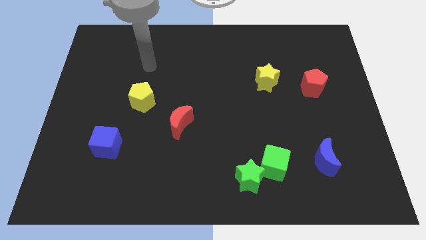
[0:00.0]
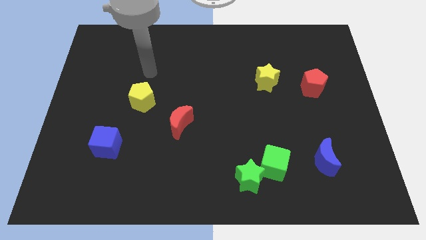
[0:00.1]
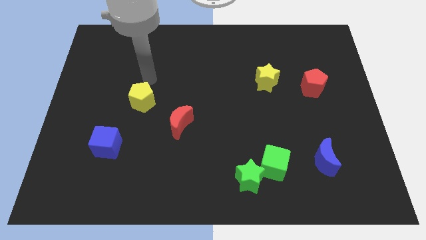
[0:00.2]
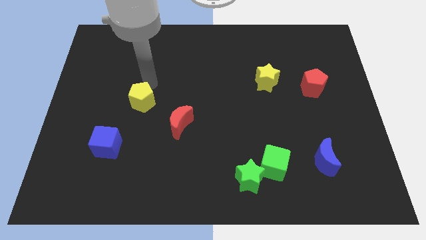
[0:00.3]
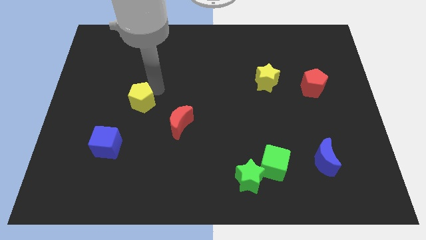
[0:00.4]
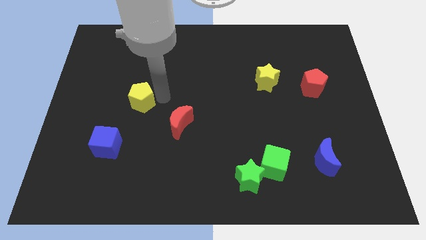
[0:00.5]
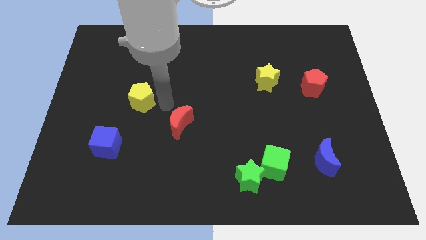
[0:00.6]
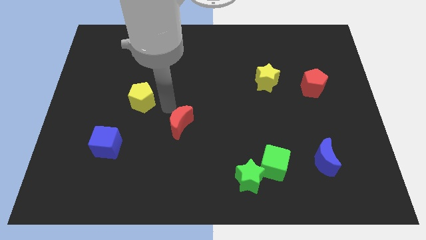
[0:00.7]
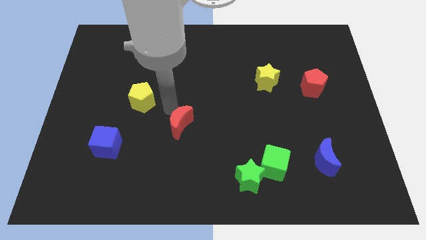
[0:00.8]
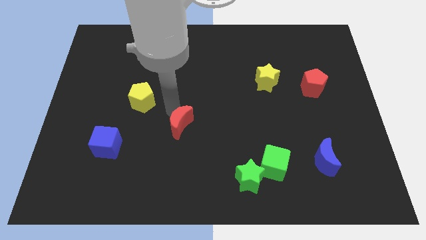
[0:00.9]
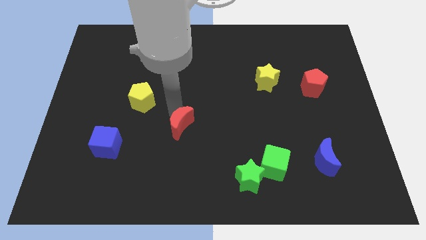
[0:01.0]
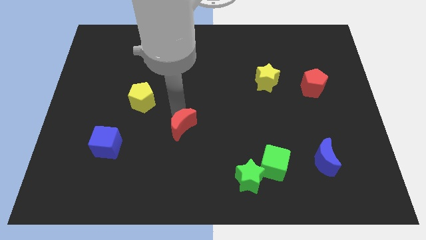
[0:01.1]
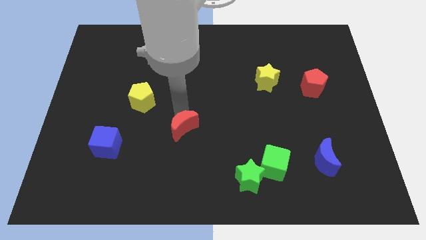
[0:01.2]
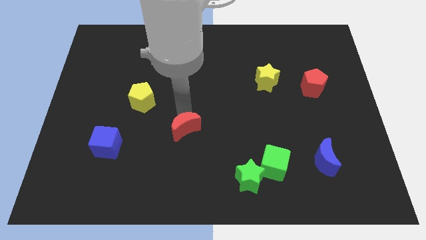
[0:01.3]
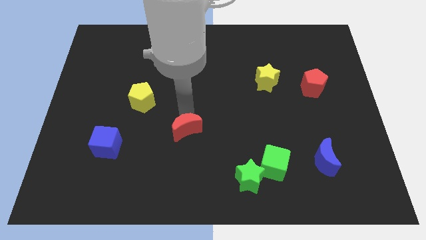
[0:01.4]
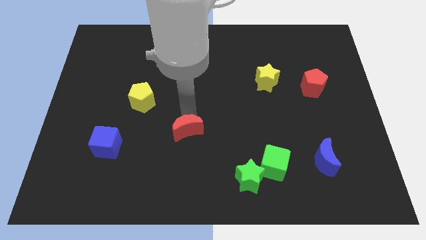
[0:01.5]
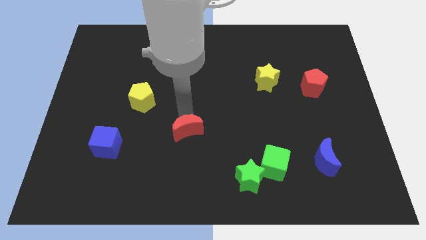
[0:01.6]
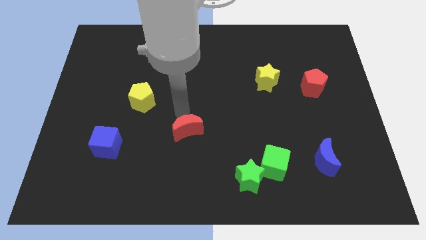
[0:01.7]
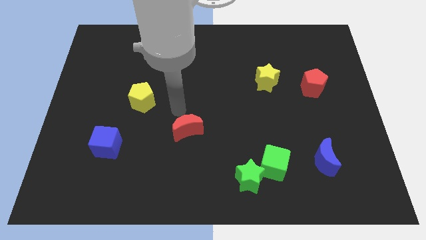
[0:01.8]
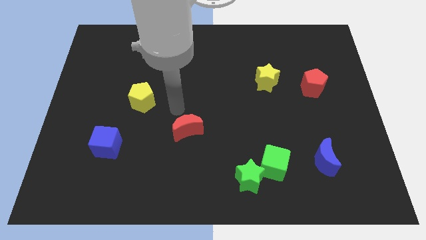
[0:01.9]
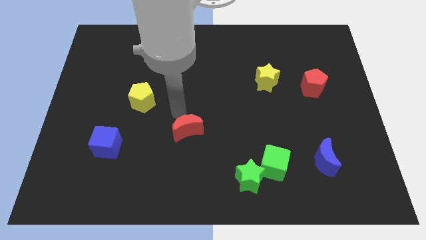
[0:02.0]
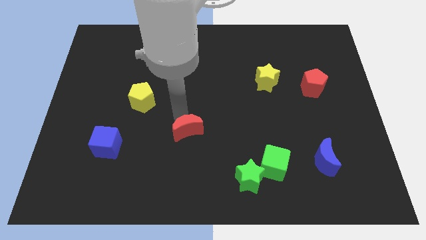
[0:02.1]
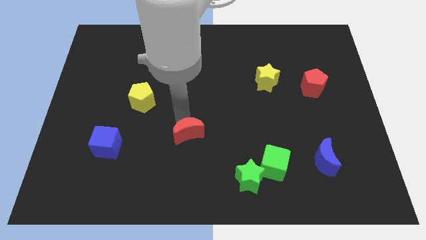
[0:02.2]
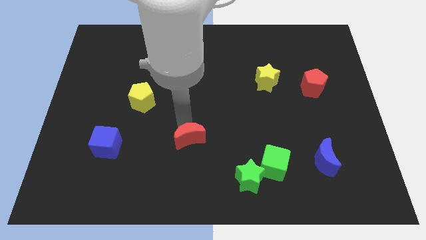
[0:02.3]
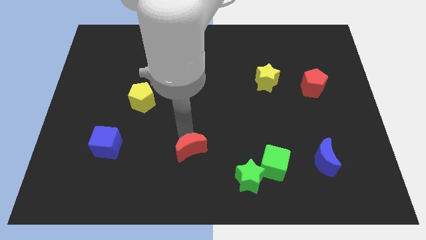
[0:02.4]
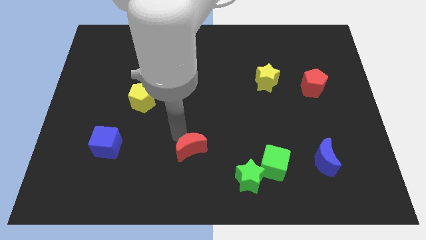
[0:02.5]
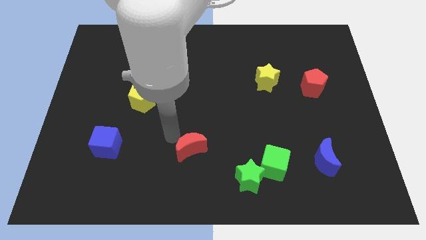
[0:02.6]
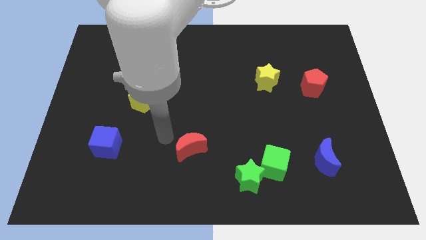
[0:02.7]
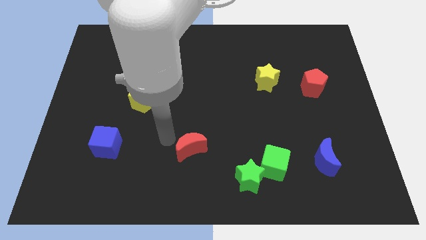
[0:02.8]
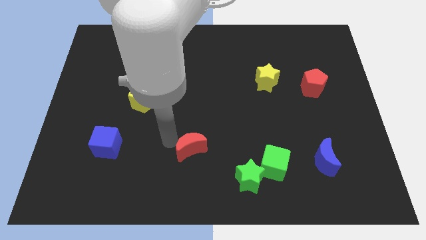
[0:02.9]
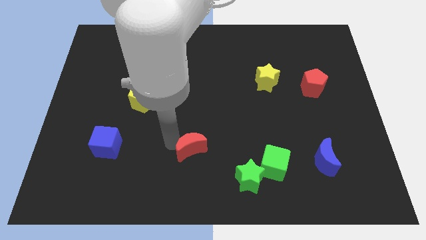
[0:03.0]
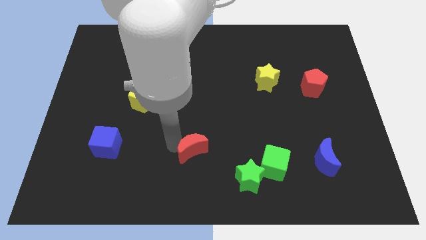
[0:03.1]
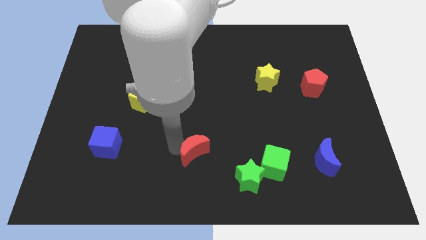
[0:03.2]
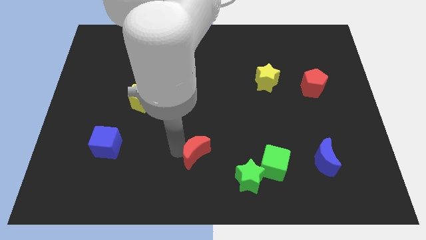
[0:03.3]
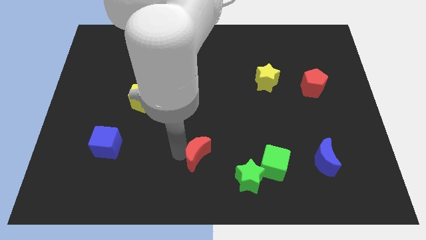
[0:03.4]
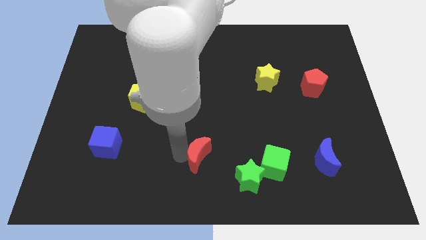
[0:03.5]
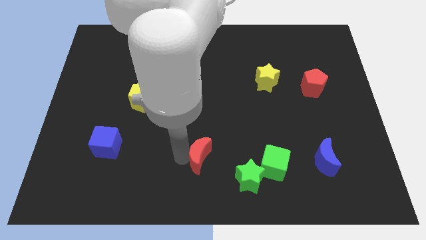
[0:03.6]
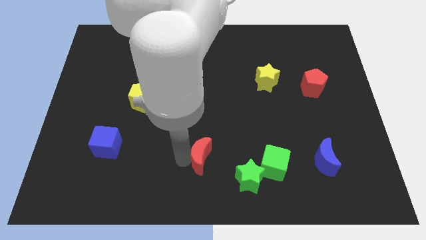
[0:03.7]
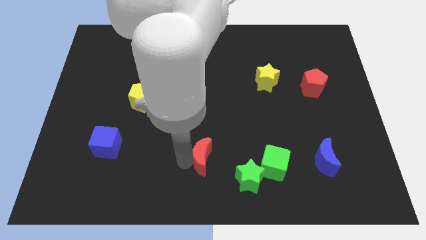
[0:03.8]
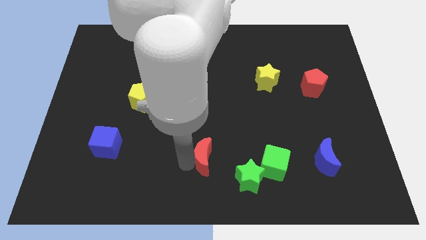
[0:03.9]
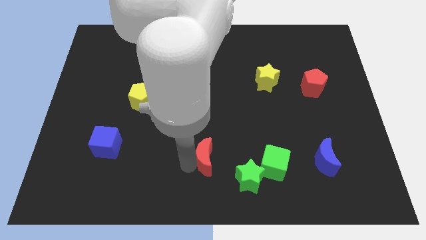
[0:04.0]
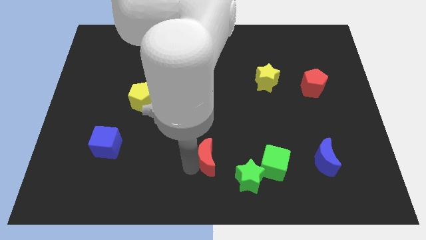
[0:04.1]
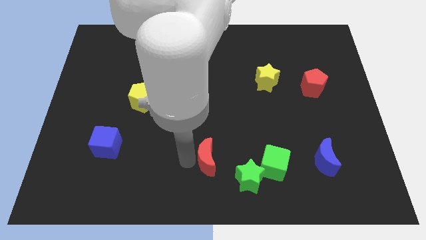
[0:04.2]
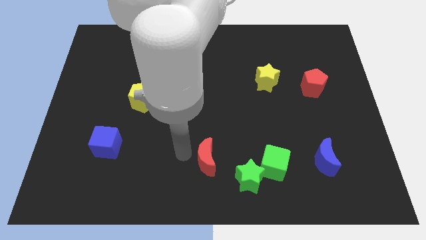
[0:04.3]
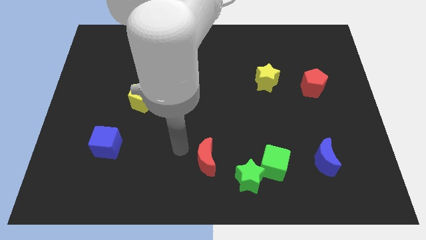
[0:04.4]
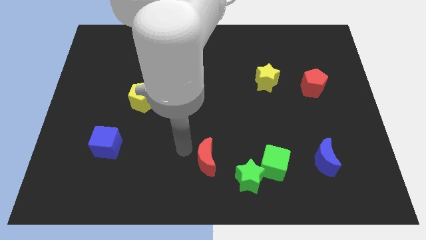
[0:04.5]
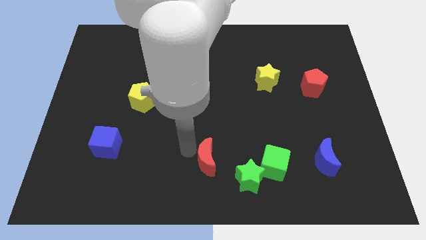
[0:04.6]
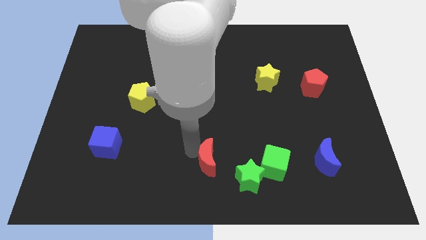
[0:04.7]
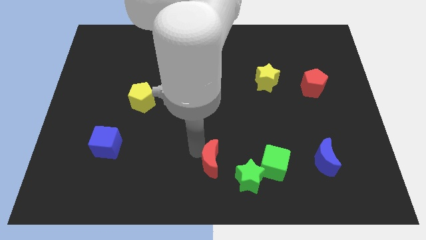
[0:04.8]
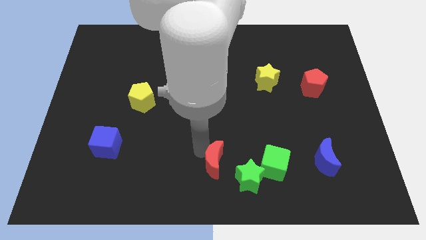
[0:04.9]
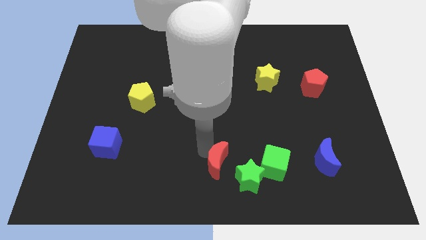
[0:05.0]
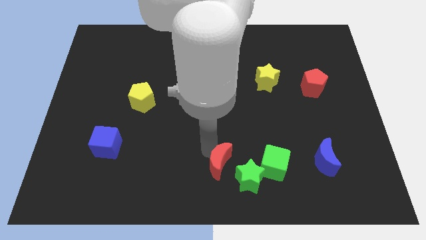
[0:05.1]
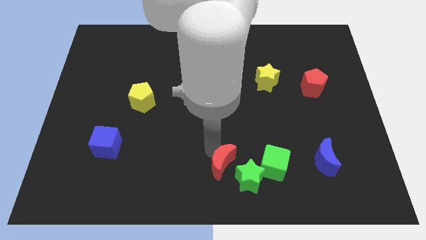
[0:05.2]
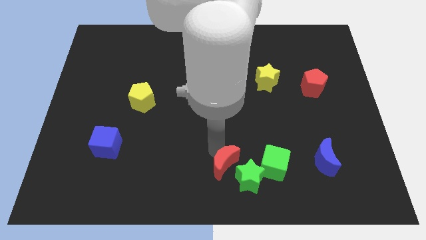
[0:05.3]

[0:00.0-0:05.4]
slide the red moon close to the green star

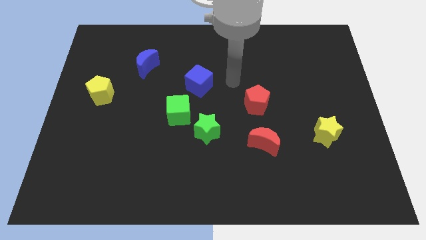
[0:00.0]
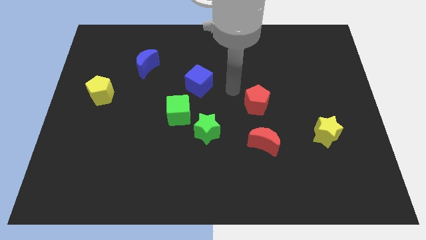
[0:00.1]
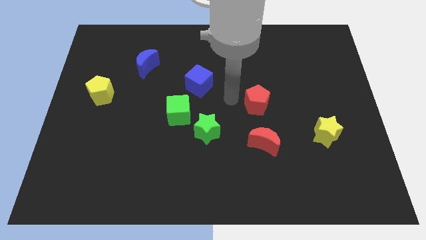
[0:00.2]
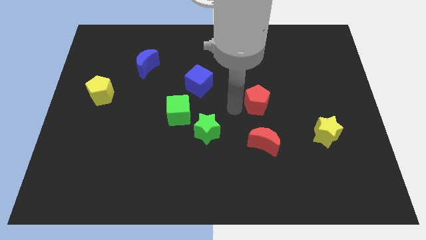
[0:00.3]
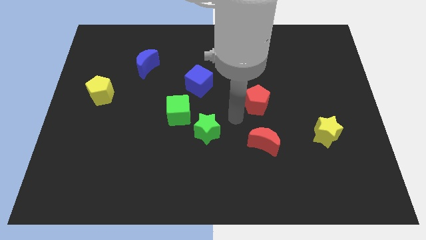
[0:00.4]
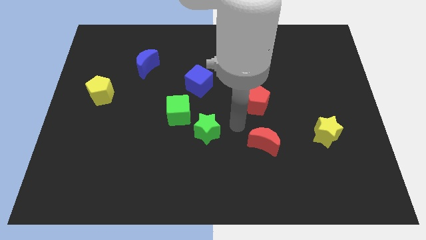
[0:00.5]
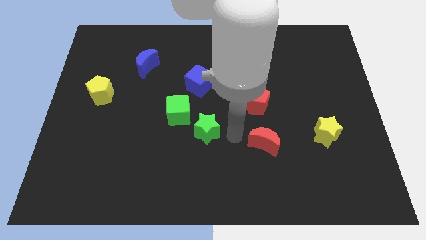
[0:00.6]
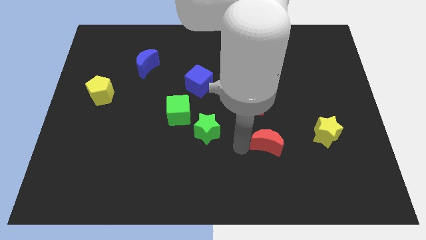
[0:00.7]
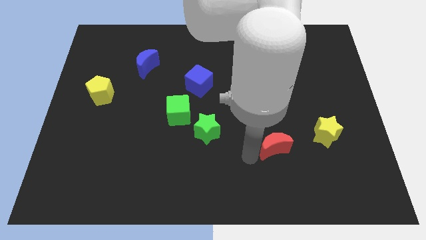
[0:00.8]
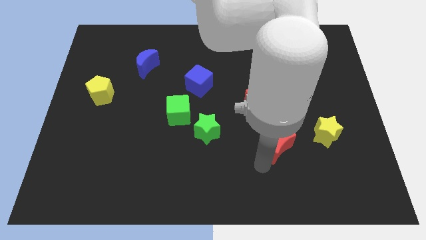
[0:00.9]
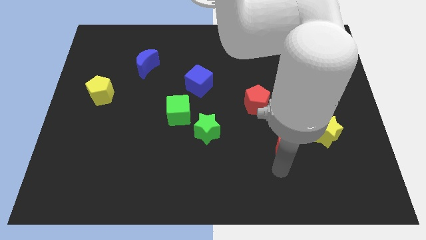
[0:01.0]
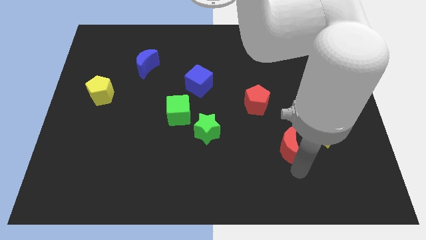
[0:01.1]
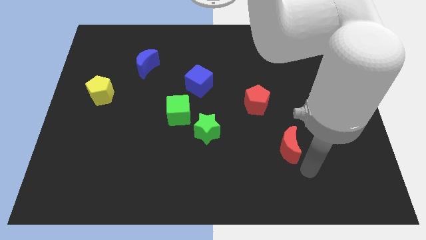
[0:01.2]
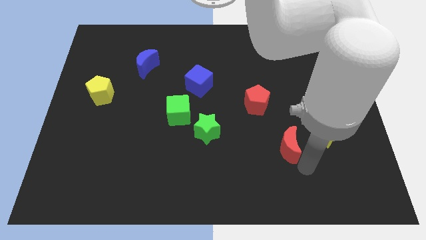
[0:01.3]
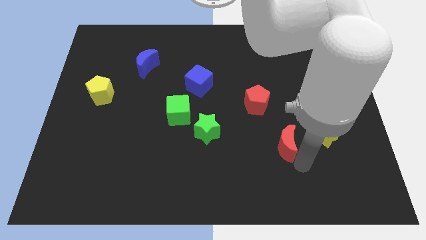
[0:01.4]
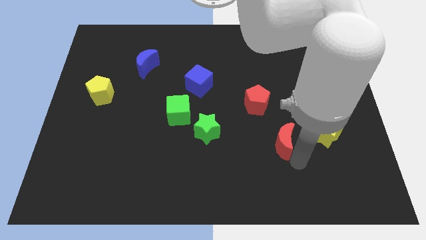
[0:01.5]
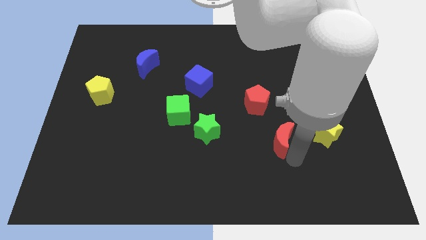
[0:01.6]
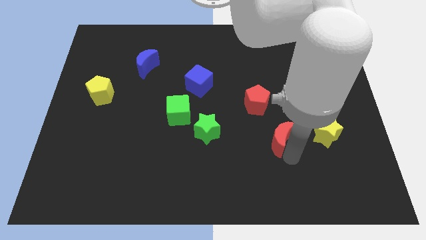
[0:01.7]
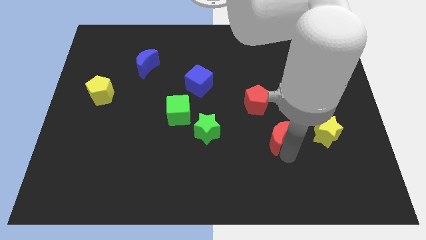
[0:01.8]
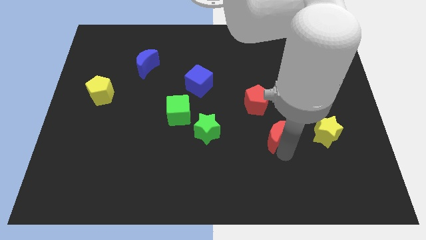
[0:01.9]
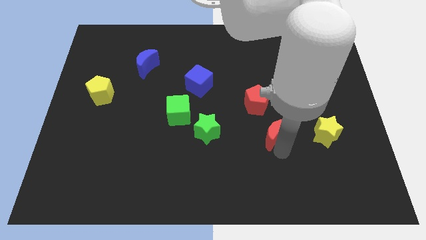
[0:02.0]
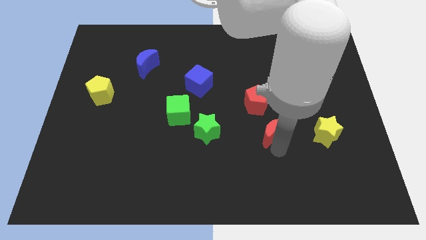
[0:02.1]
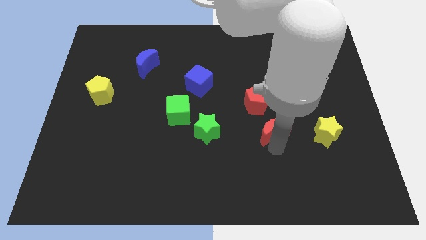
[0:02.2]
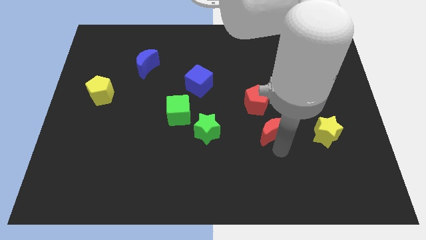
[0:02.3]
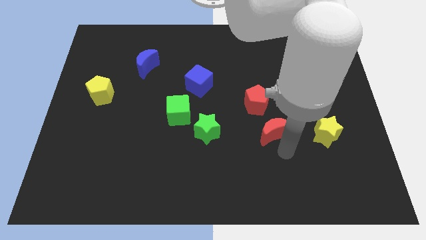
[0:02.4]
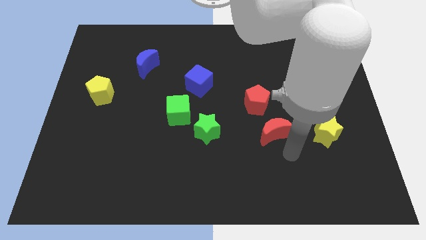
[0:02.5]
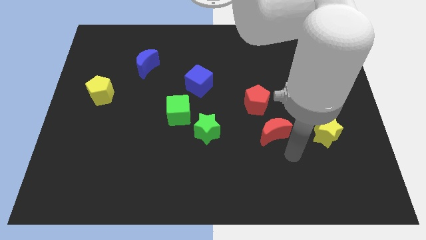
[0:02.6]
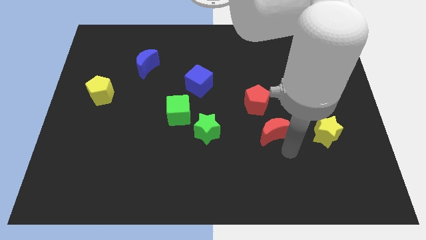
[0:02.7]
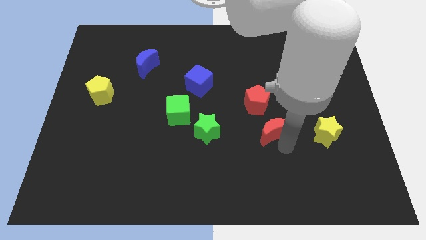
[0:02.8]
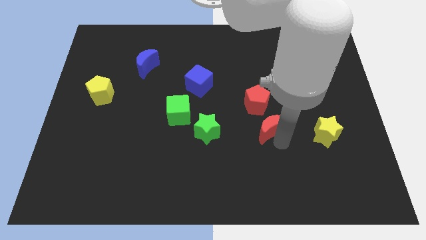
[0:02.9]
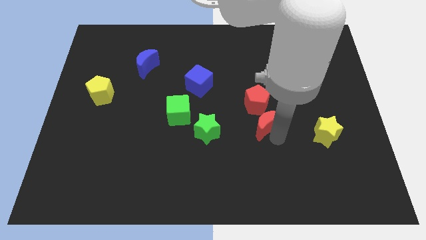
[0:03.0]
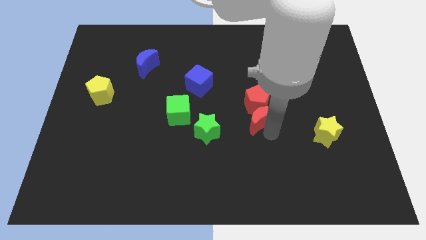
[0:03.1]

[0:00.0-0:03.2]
push the red moon towards the red pentagon
